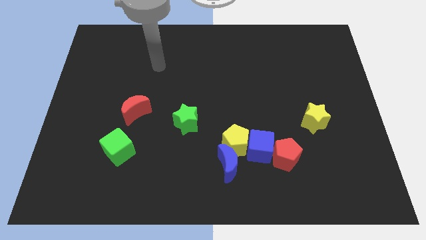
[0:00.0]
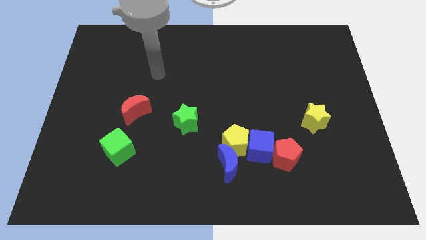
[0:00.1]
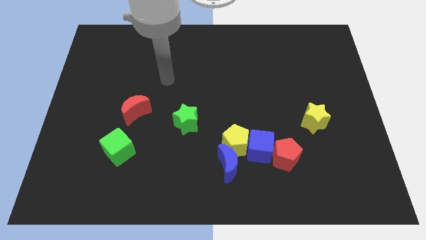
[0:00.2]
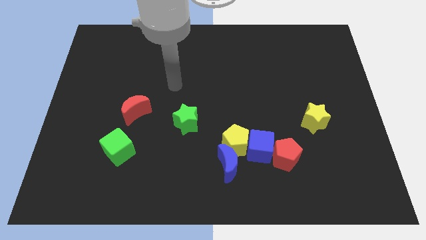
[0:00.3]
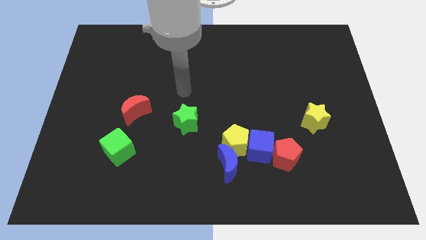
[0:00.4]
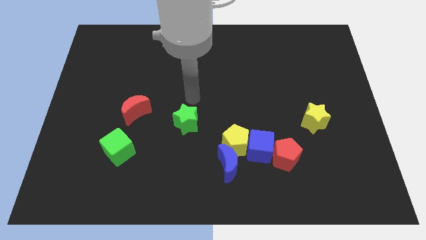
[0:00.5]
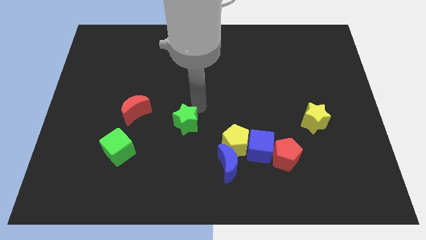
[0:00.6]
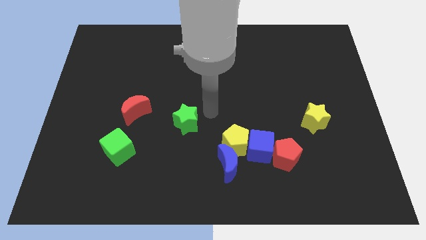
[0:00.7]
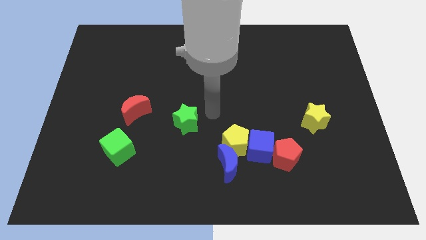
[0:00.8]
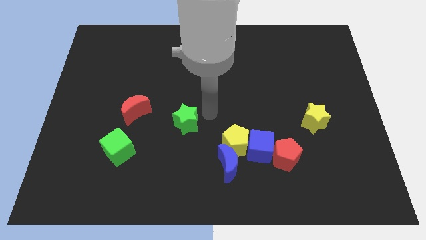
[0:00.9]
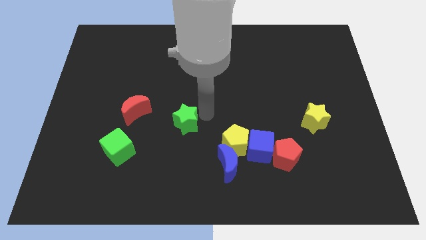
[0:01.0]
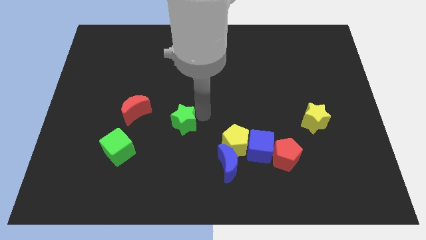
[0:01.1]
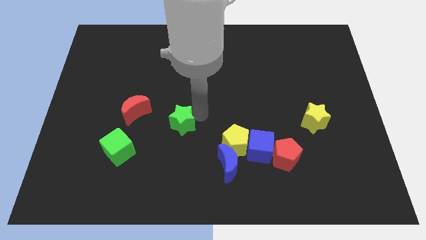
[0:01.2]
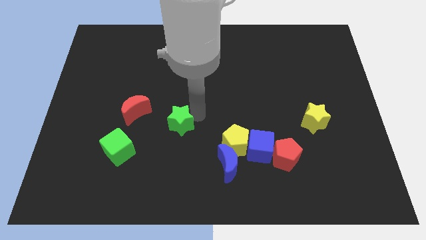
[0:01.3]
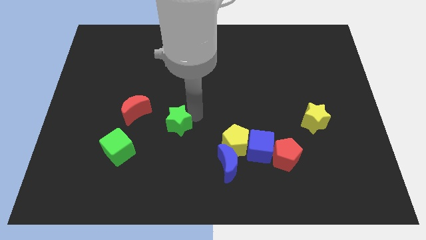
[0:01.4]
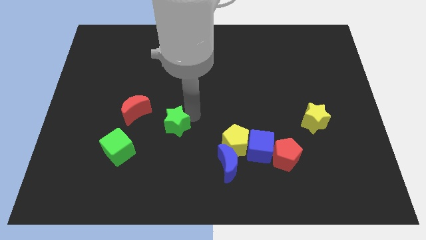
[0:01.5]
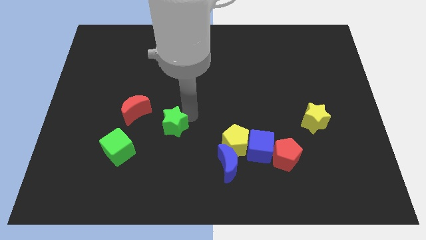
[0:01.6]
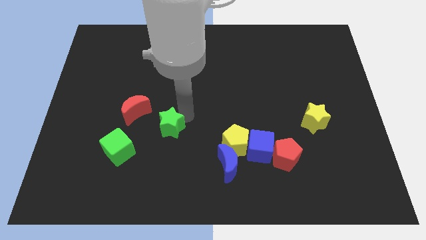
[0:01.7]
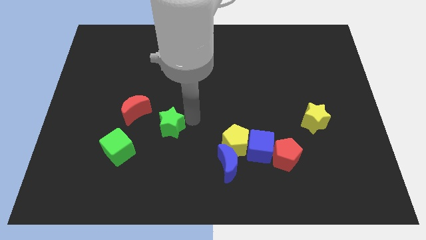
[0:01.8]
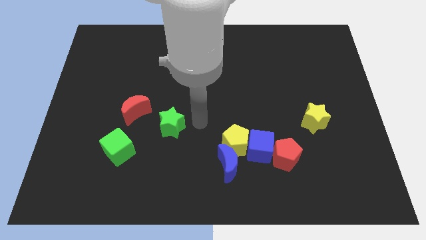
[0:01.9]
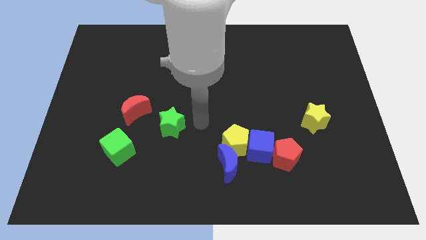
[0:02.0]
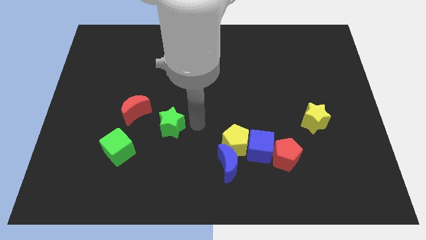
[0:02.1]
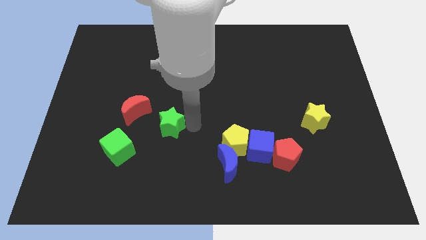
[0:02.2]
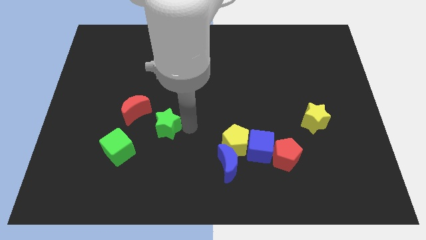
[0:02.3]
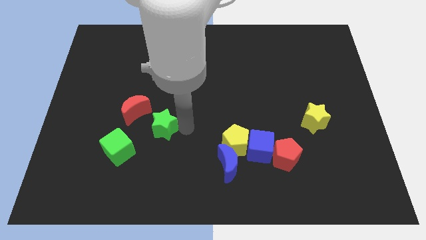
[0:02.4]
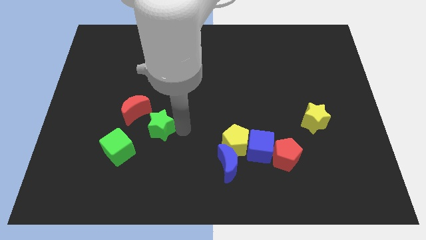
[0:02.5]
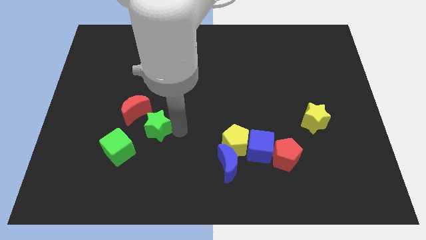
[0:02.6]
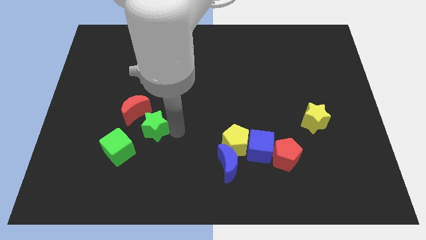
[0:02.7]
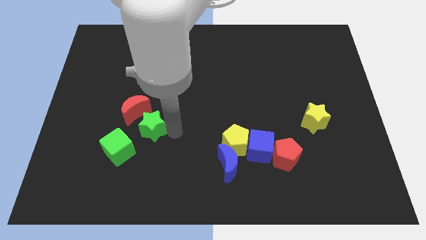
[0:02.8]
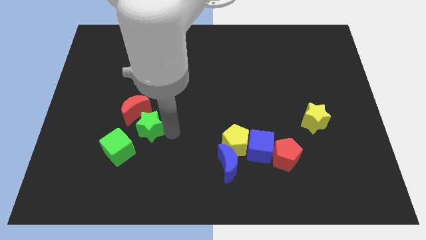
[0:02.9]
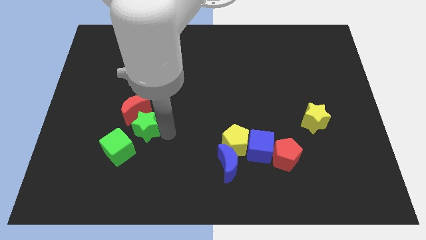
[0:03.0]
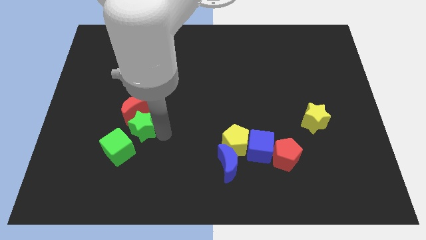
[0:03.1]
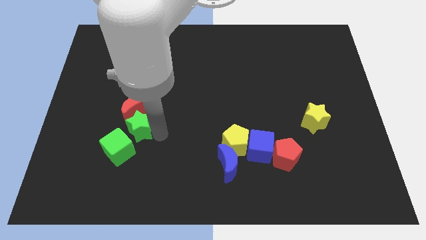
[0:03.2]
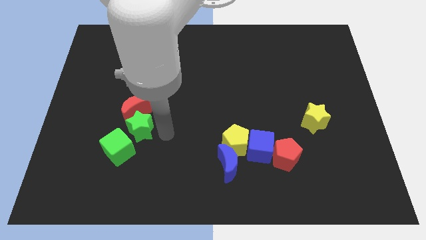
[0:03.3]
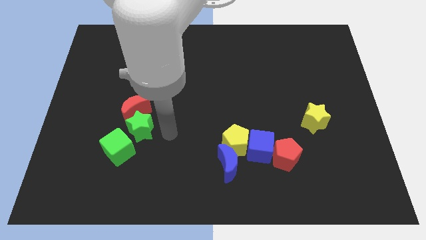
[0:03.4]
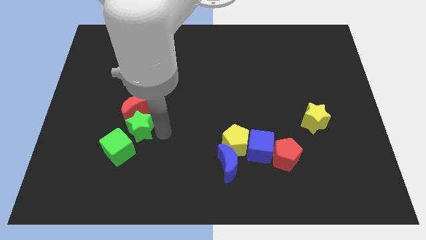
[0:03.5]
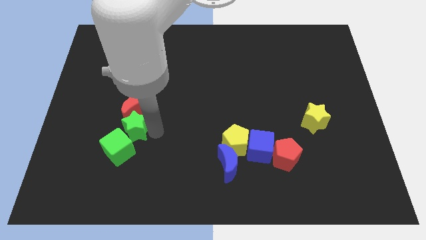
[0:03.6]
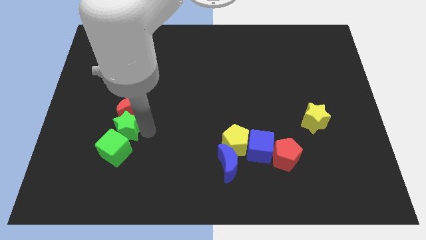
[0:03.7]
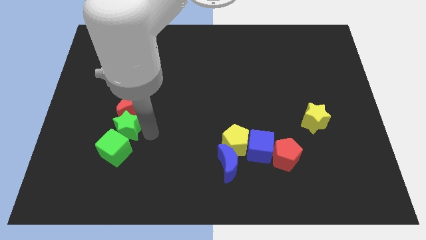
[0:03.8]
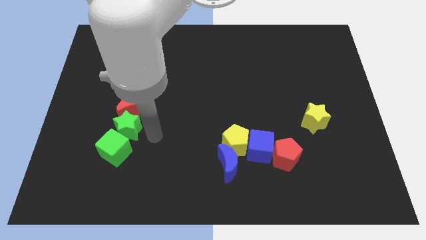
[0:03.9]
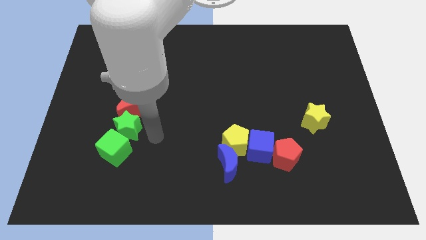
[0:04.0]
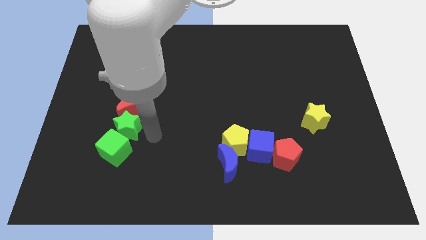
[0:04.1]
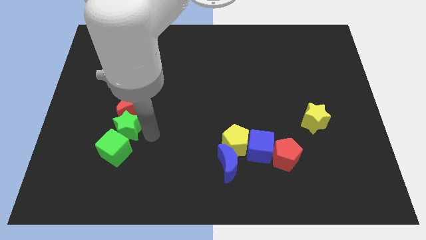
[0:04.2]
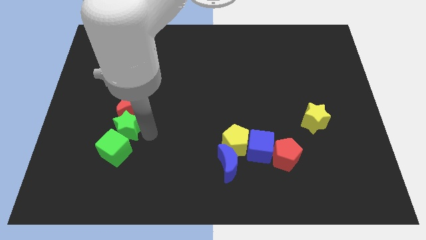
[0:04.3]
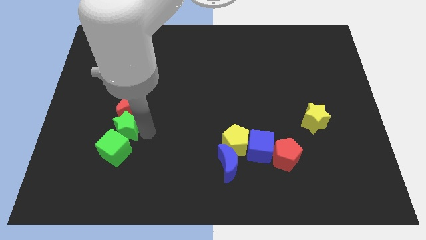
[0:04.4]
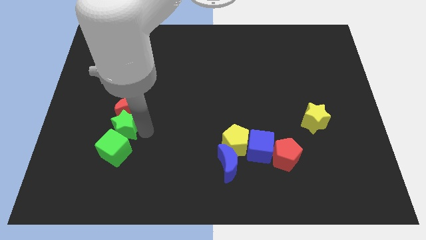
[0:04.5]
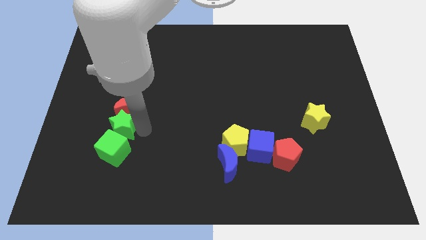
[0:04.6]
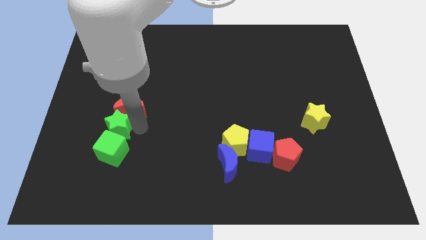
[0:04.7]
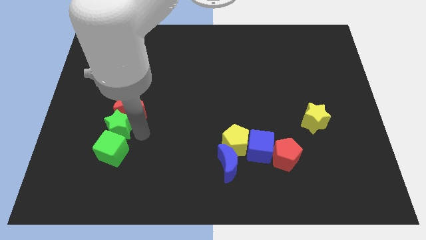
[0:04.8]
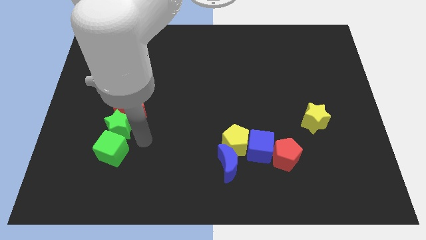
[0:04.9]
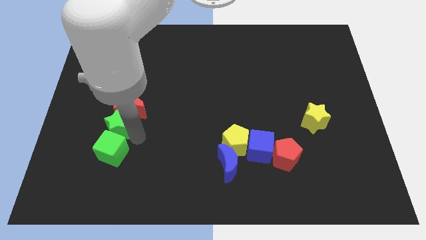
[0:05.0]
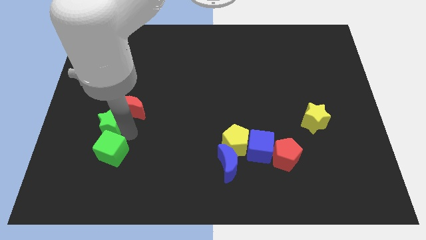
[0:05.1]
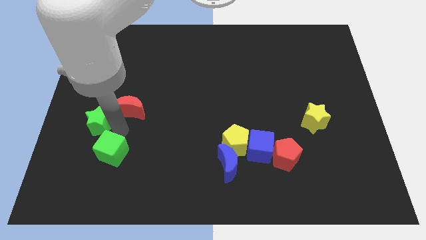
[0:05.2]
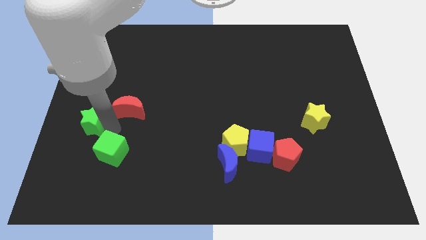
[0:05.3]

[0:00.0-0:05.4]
move the green star to the left side of the board

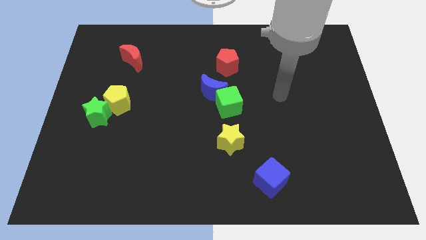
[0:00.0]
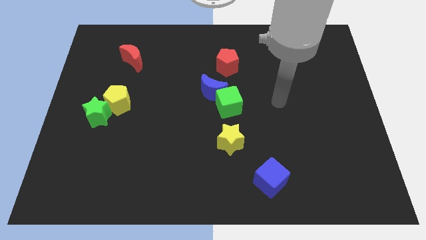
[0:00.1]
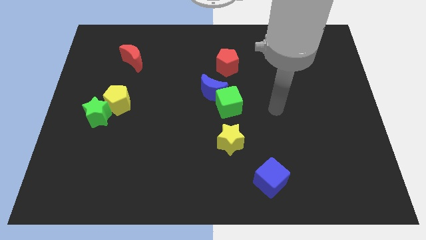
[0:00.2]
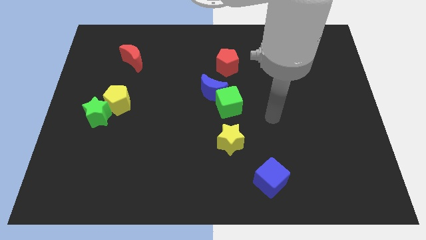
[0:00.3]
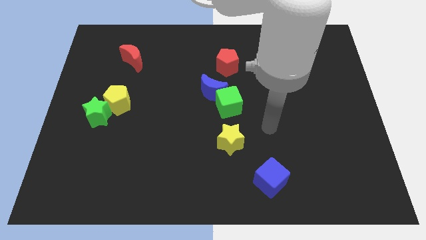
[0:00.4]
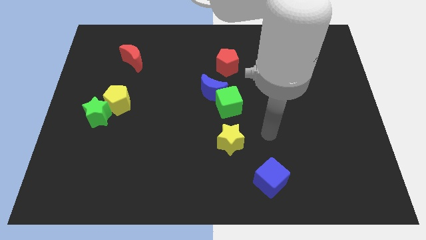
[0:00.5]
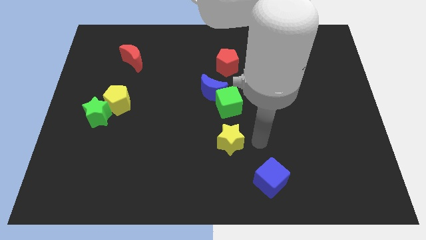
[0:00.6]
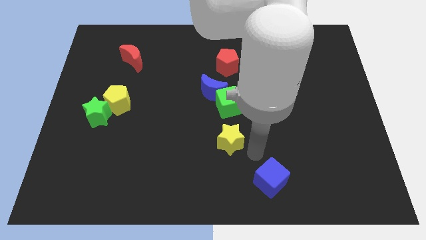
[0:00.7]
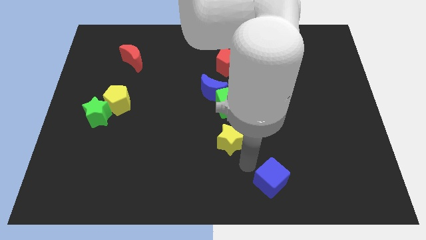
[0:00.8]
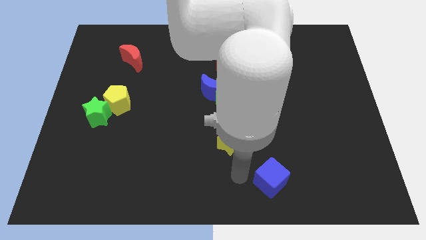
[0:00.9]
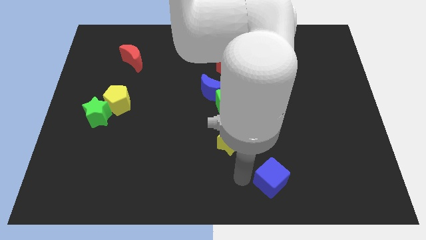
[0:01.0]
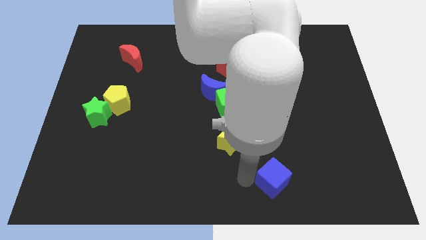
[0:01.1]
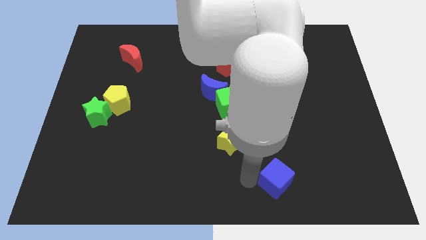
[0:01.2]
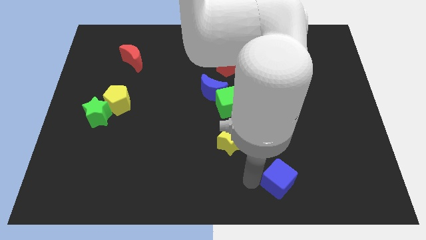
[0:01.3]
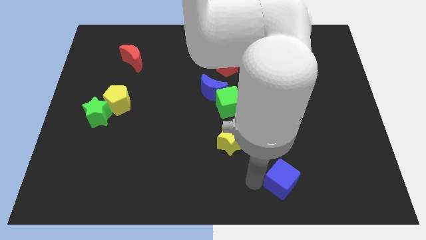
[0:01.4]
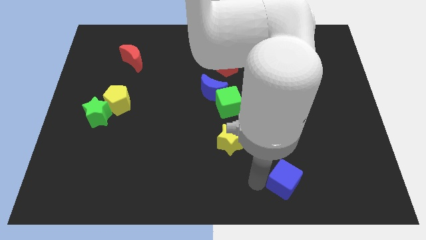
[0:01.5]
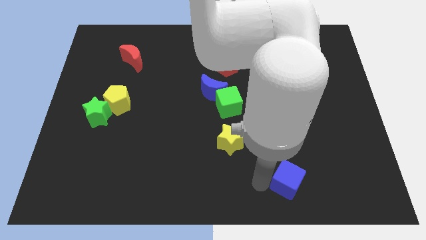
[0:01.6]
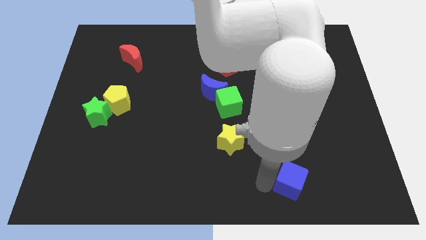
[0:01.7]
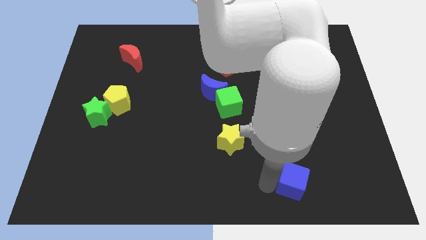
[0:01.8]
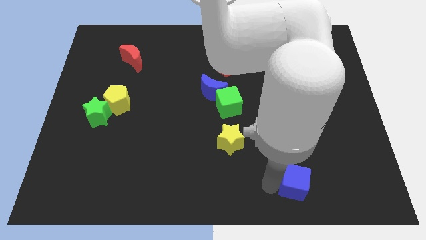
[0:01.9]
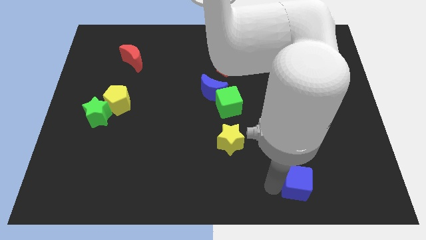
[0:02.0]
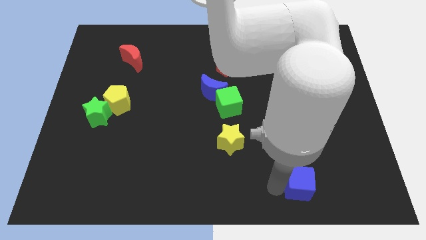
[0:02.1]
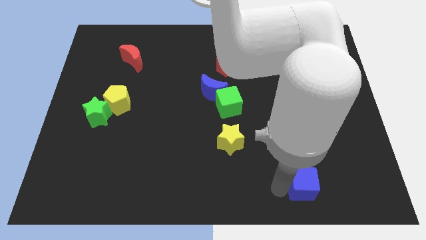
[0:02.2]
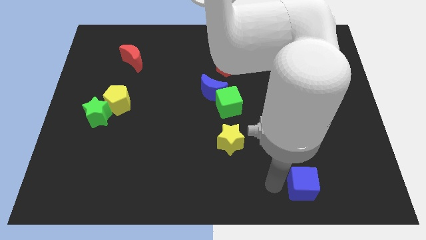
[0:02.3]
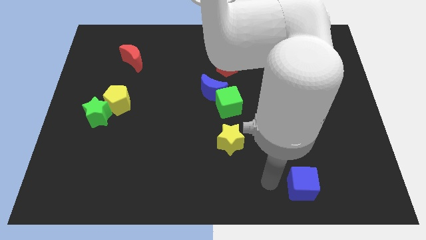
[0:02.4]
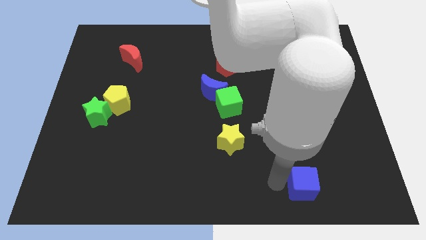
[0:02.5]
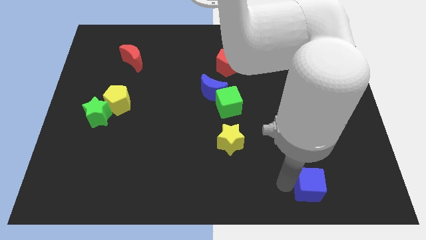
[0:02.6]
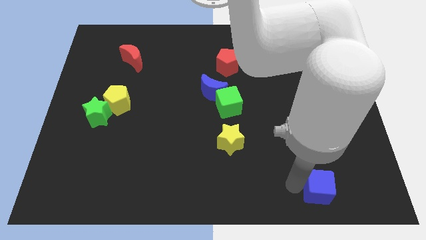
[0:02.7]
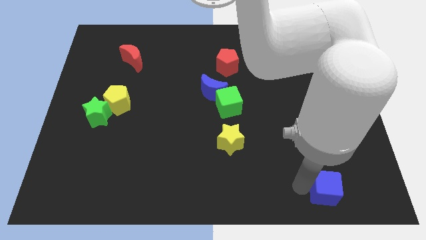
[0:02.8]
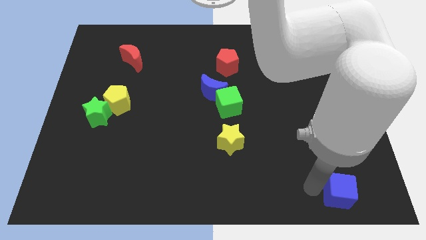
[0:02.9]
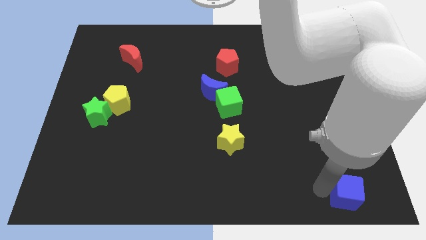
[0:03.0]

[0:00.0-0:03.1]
slide the blue cube to the lower right corner
